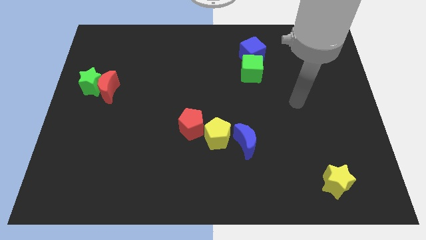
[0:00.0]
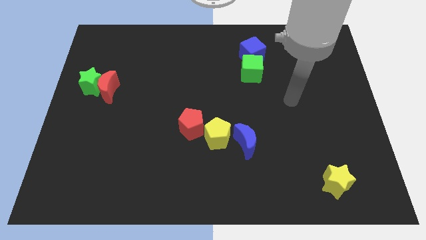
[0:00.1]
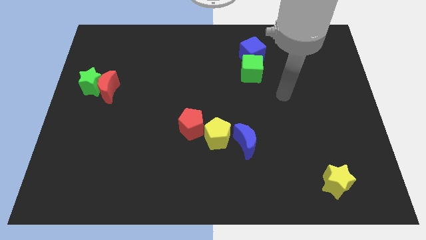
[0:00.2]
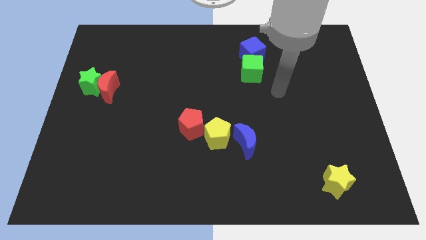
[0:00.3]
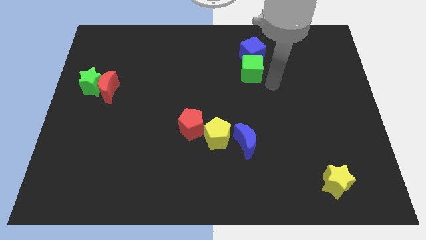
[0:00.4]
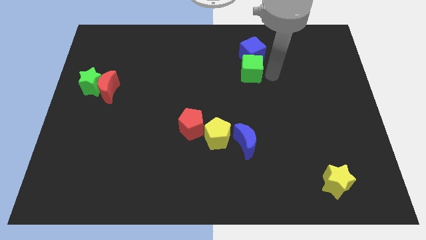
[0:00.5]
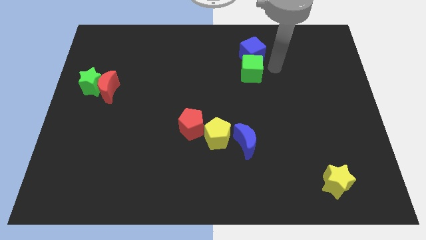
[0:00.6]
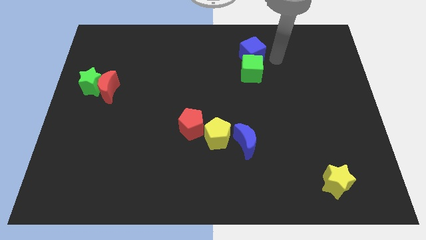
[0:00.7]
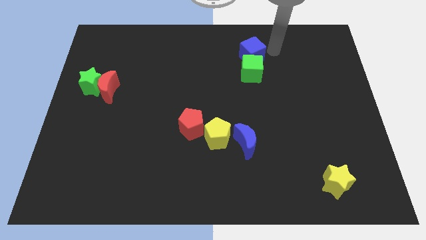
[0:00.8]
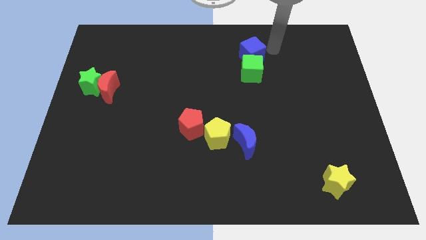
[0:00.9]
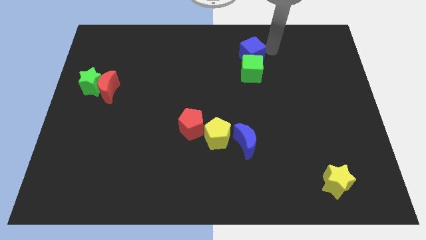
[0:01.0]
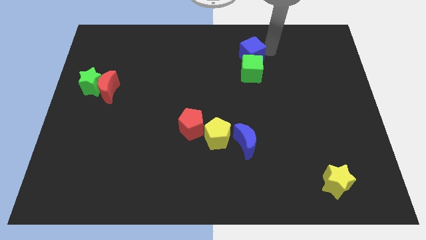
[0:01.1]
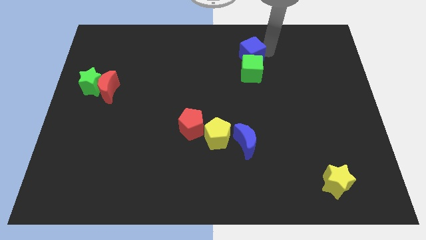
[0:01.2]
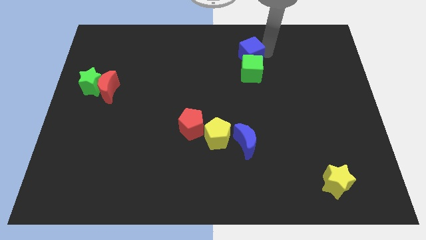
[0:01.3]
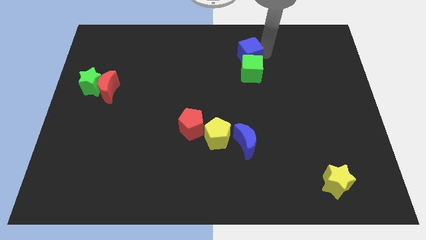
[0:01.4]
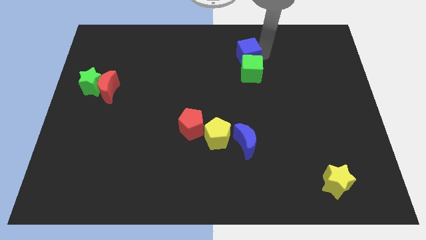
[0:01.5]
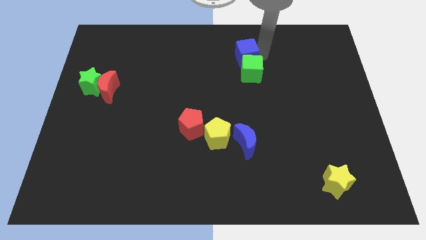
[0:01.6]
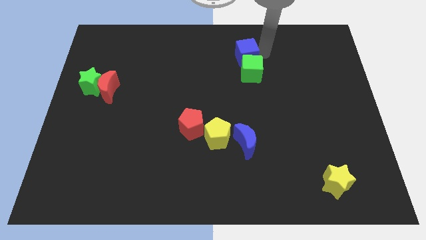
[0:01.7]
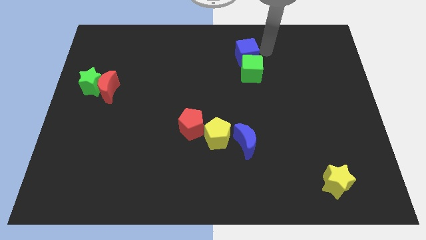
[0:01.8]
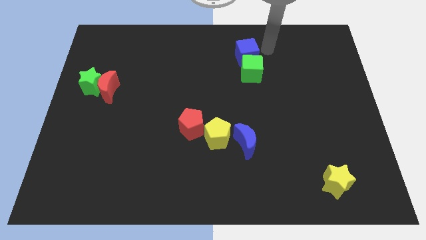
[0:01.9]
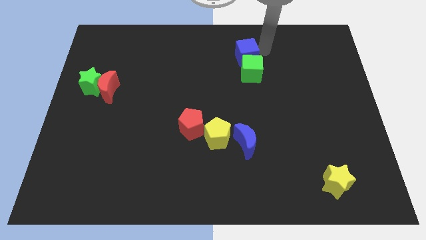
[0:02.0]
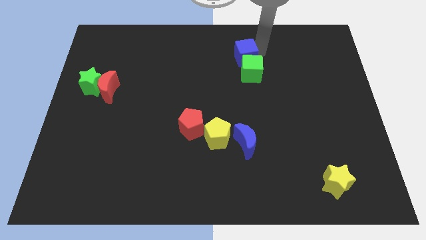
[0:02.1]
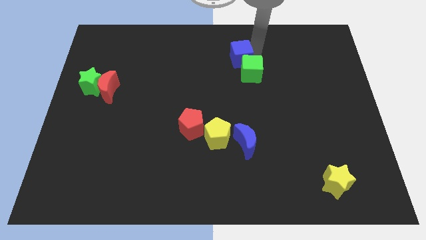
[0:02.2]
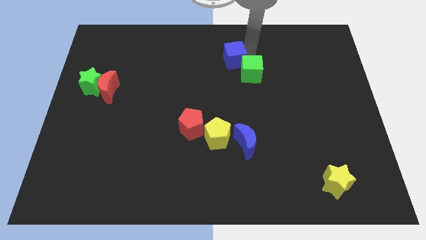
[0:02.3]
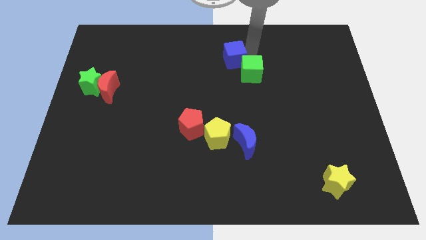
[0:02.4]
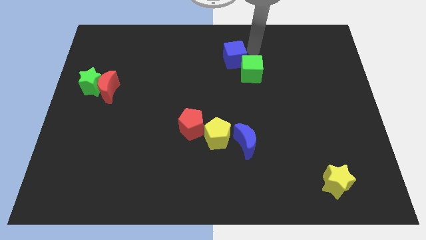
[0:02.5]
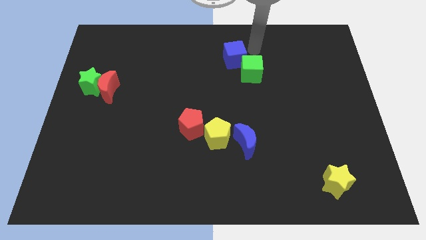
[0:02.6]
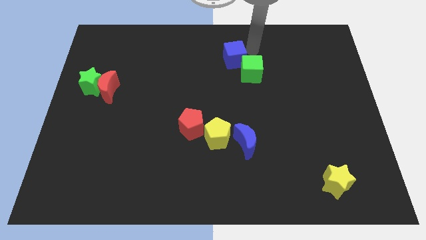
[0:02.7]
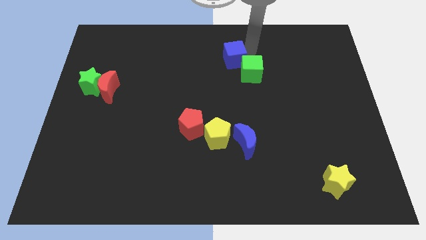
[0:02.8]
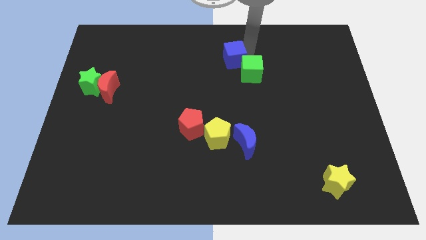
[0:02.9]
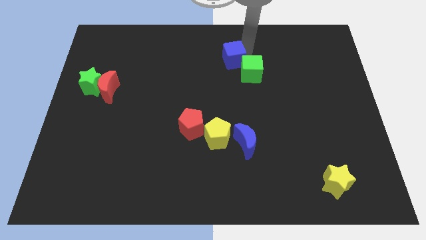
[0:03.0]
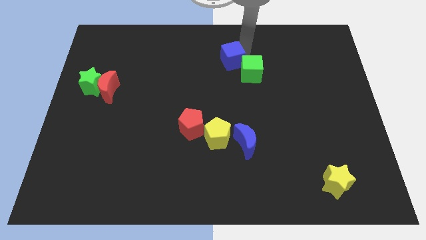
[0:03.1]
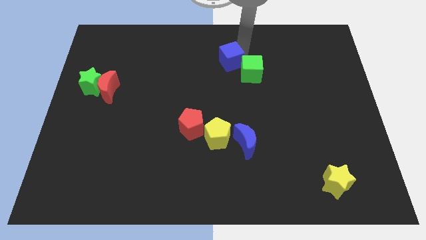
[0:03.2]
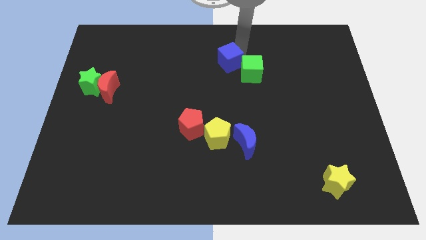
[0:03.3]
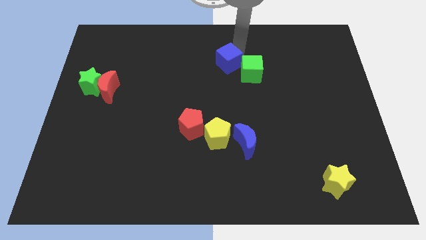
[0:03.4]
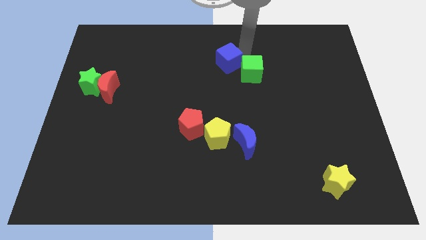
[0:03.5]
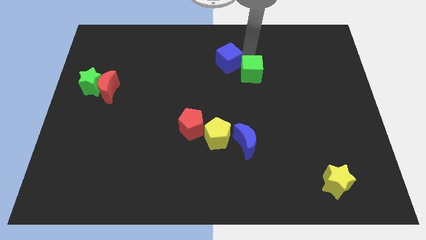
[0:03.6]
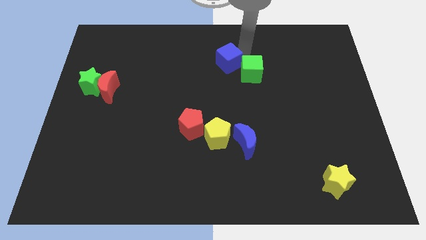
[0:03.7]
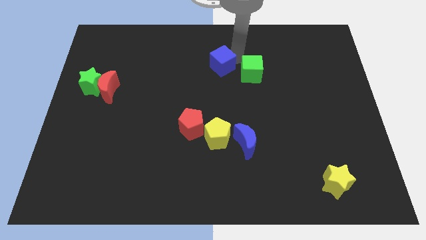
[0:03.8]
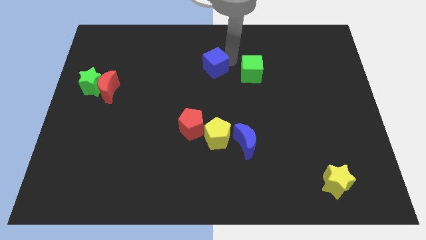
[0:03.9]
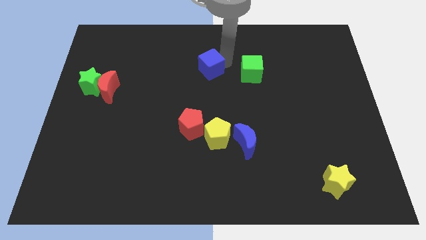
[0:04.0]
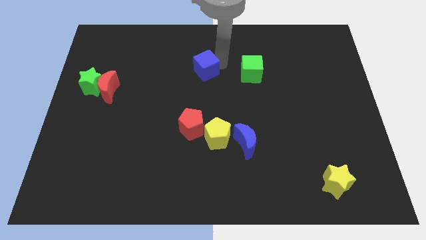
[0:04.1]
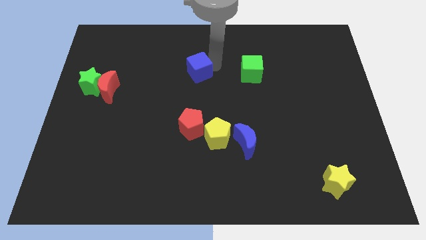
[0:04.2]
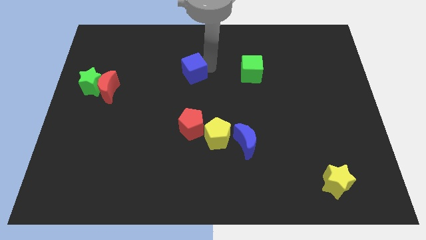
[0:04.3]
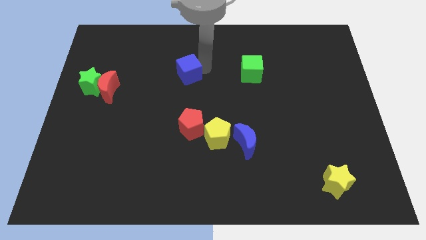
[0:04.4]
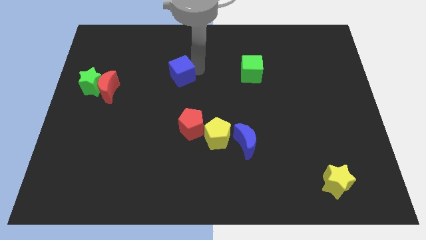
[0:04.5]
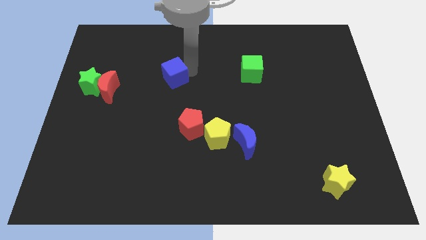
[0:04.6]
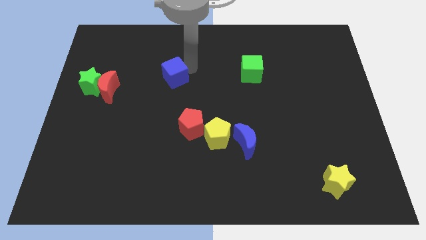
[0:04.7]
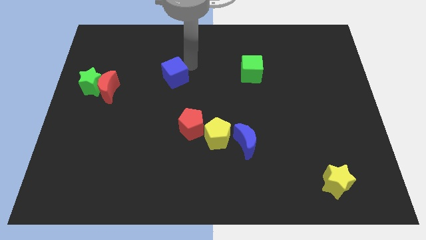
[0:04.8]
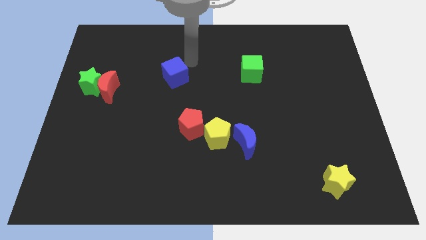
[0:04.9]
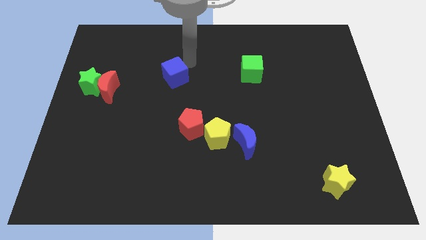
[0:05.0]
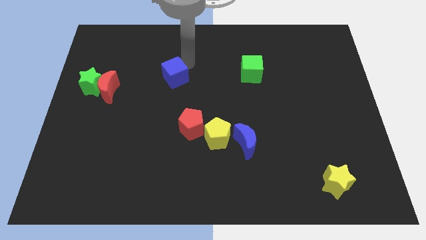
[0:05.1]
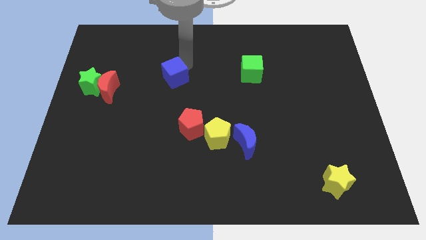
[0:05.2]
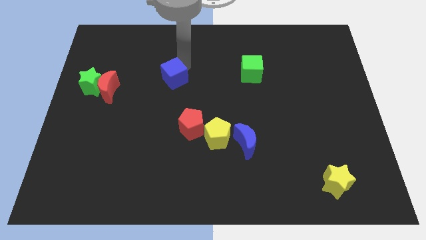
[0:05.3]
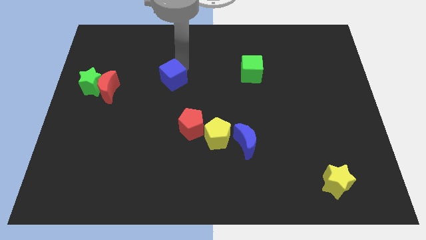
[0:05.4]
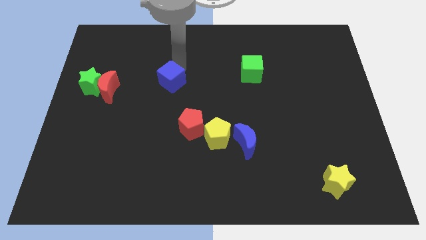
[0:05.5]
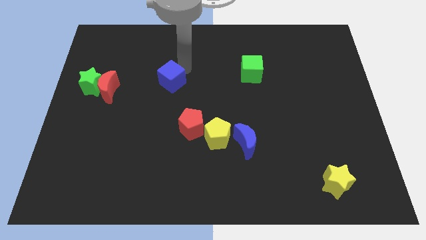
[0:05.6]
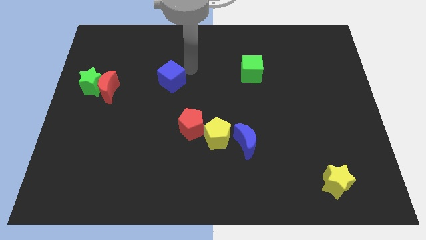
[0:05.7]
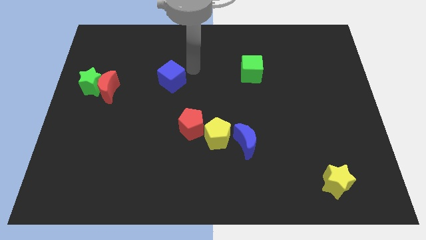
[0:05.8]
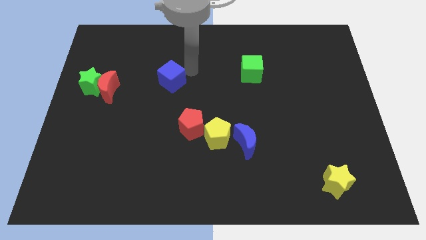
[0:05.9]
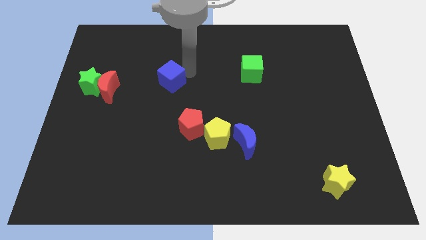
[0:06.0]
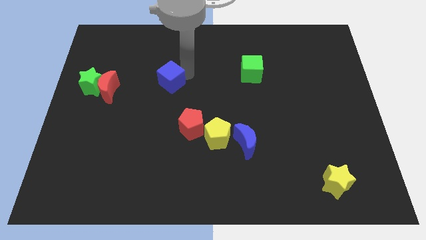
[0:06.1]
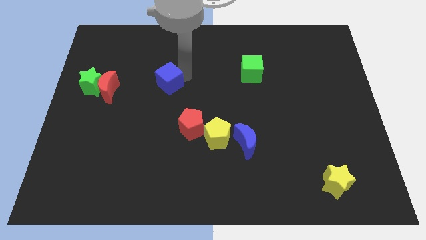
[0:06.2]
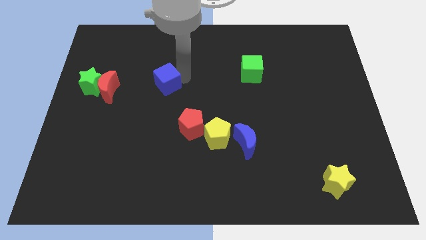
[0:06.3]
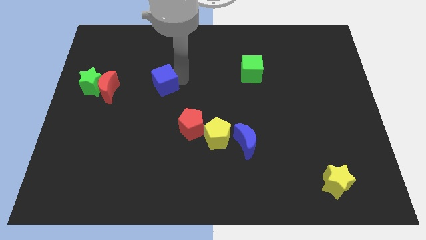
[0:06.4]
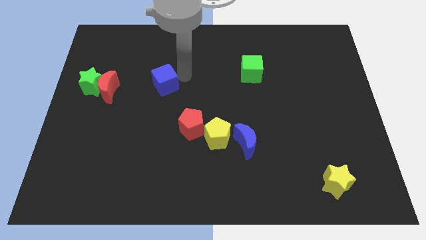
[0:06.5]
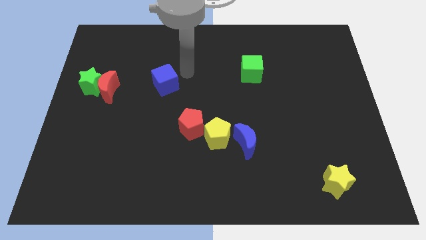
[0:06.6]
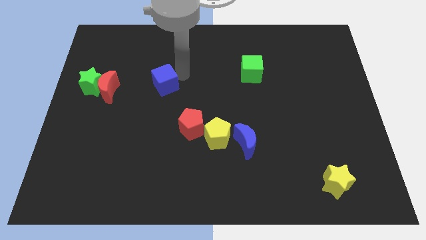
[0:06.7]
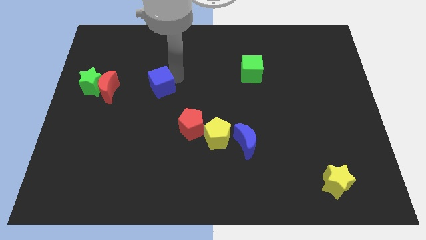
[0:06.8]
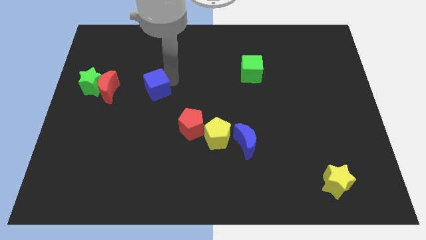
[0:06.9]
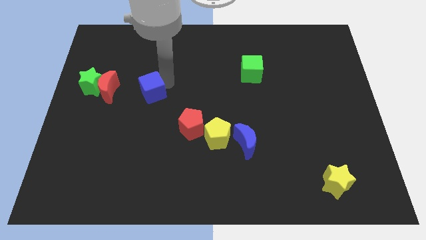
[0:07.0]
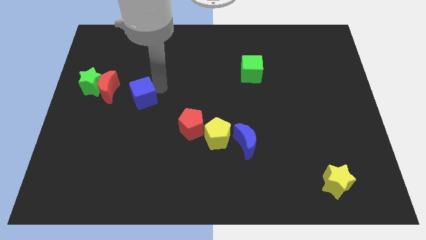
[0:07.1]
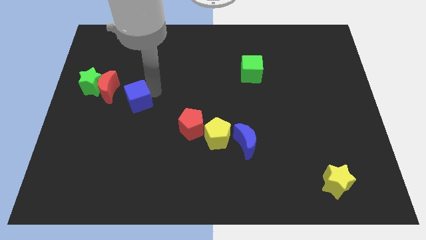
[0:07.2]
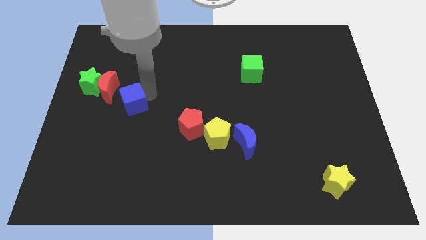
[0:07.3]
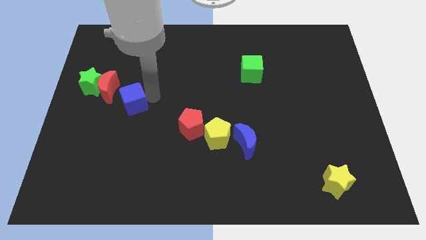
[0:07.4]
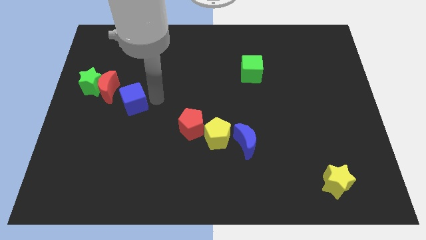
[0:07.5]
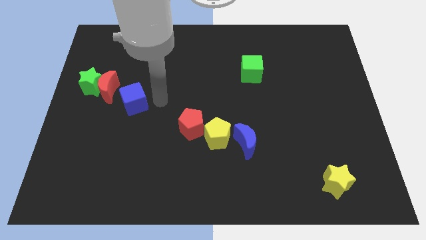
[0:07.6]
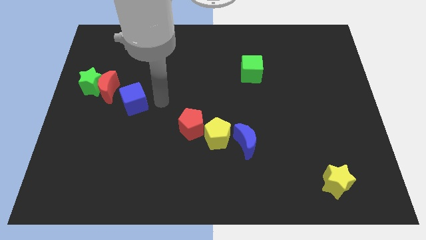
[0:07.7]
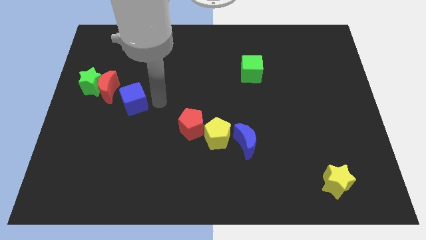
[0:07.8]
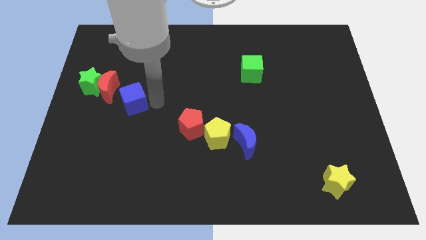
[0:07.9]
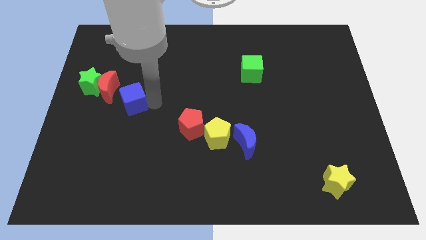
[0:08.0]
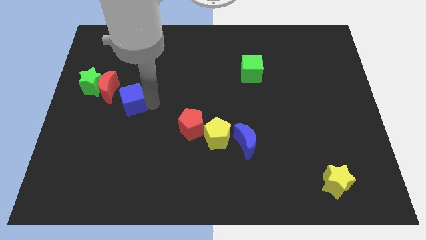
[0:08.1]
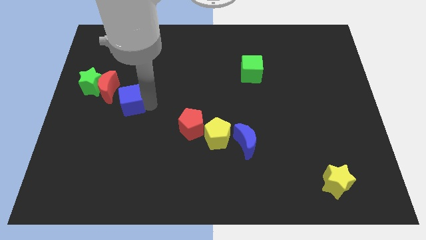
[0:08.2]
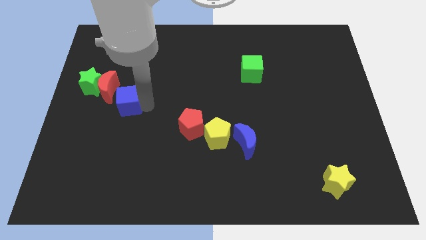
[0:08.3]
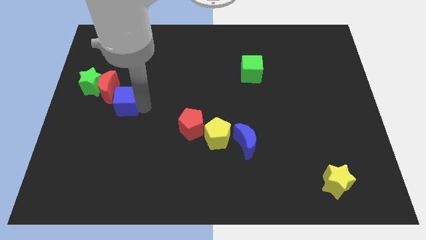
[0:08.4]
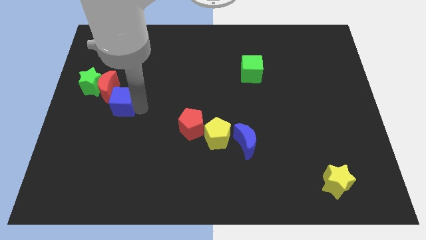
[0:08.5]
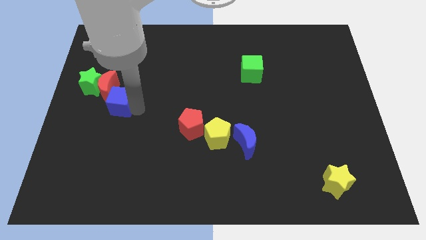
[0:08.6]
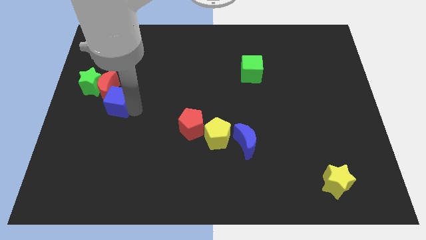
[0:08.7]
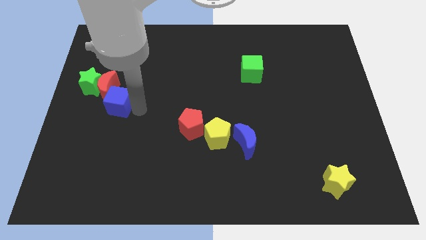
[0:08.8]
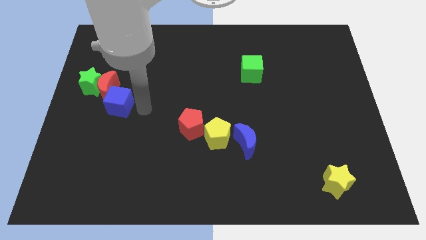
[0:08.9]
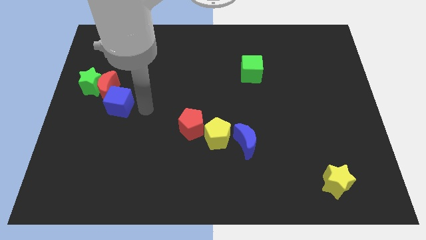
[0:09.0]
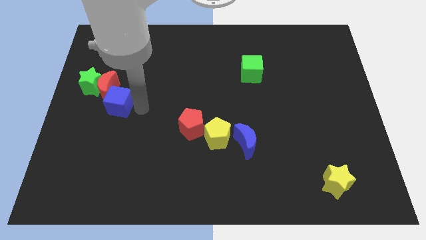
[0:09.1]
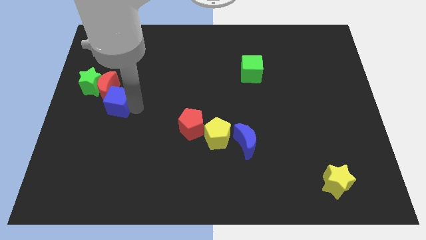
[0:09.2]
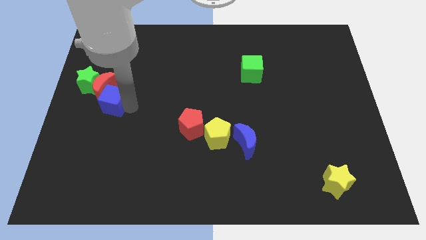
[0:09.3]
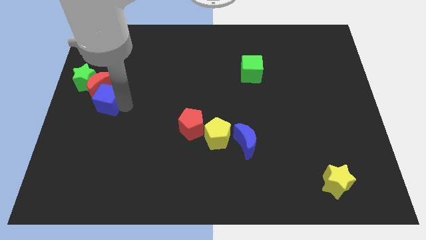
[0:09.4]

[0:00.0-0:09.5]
put the blue cube to the left side
